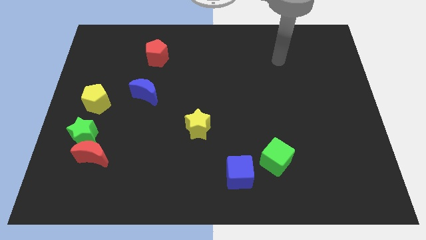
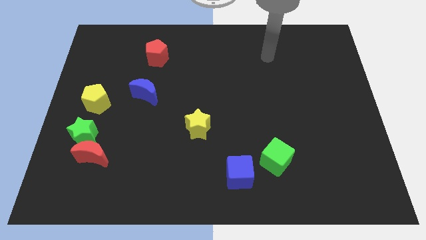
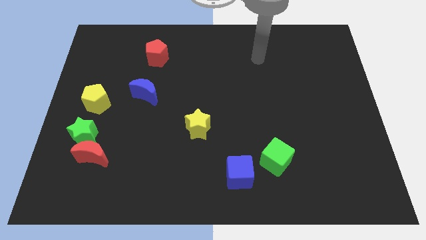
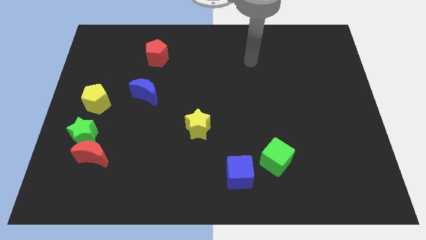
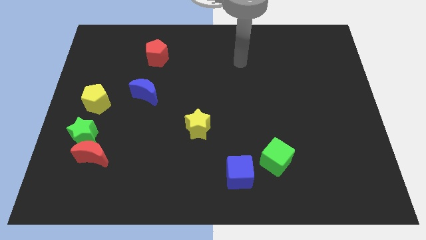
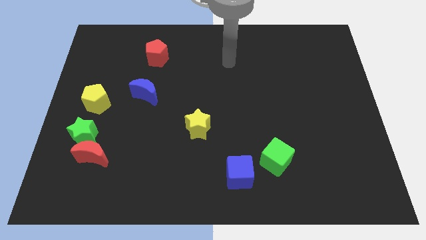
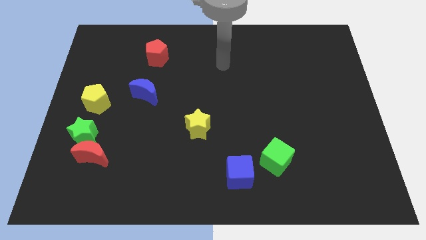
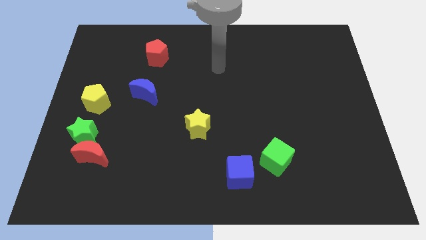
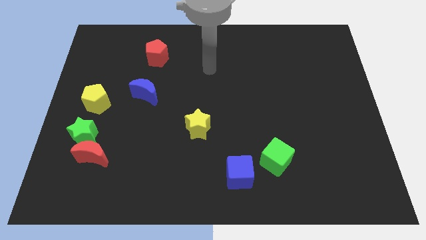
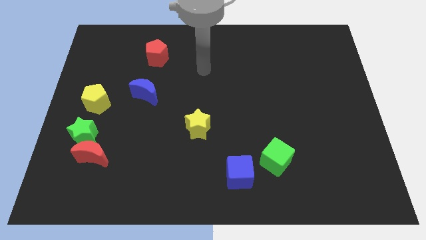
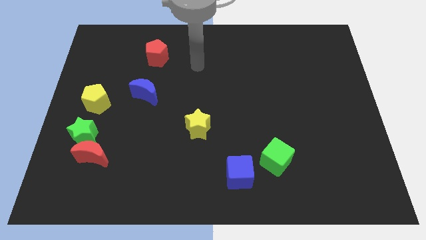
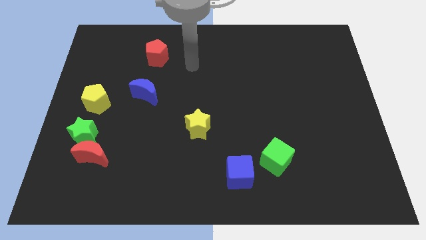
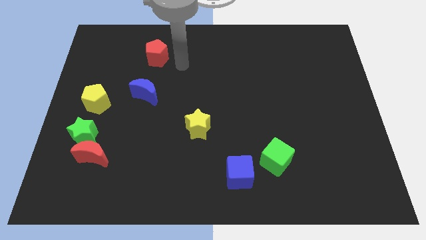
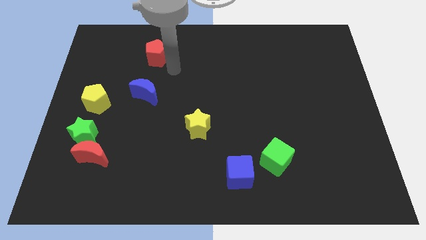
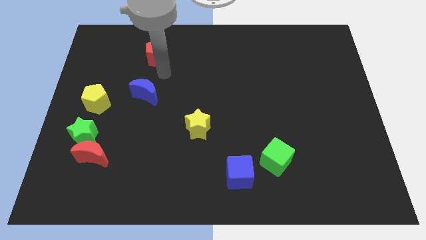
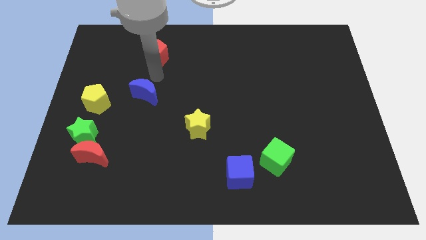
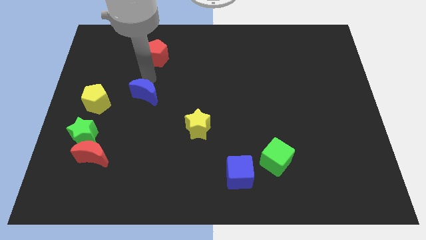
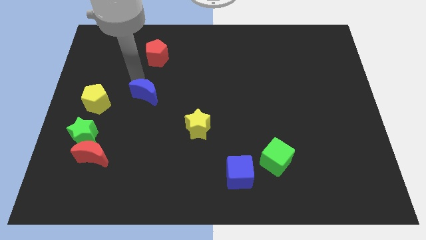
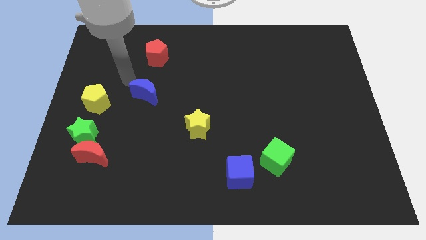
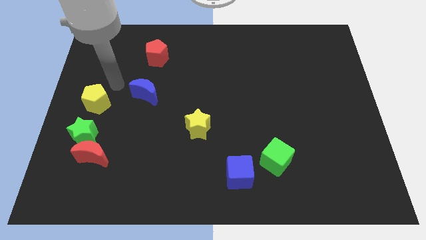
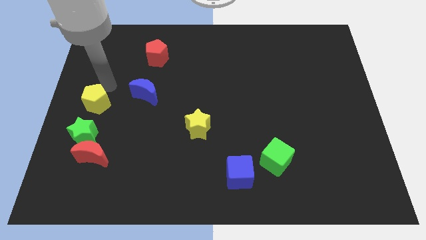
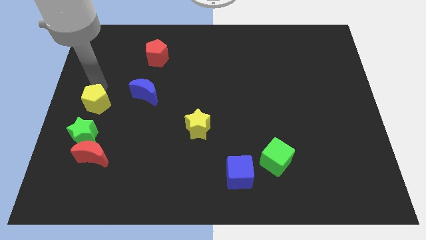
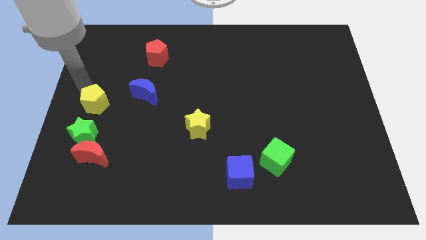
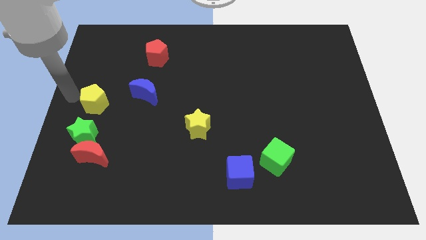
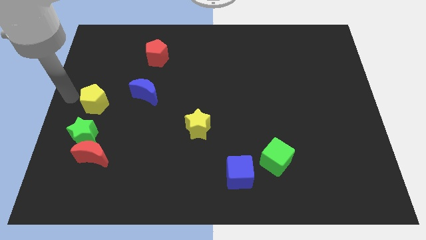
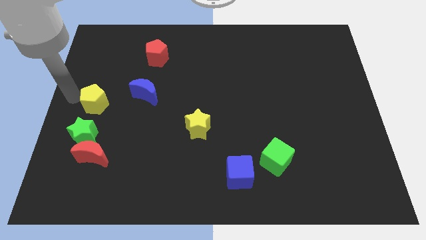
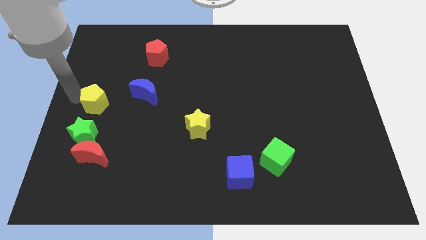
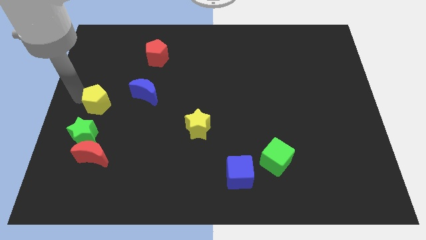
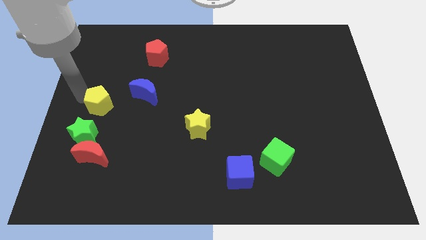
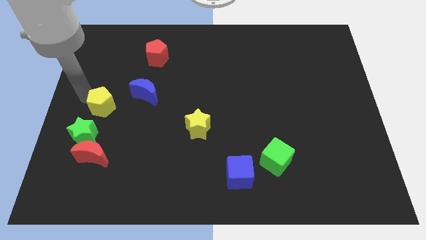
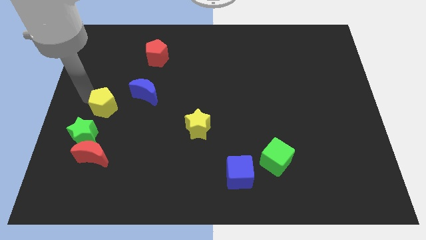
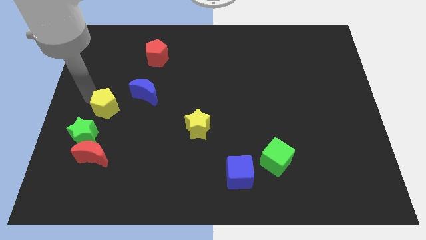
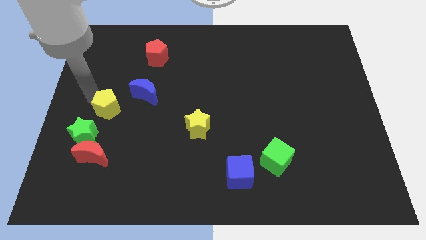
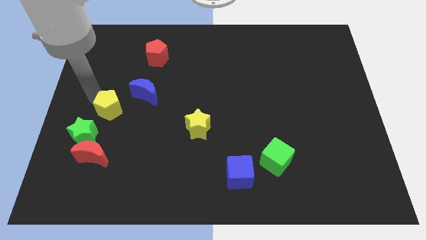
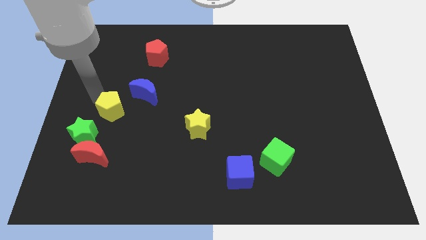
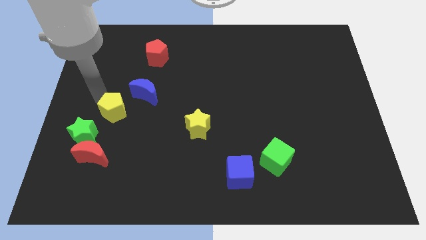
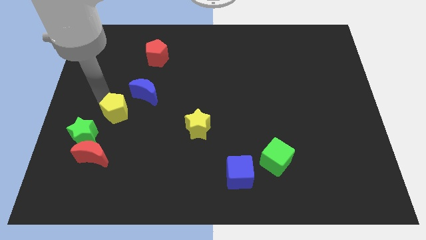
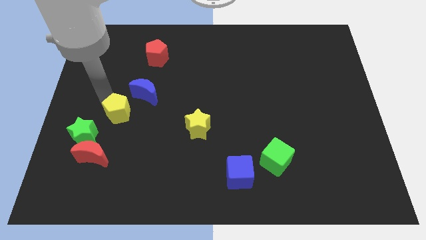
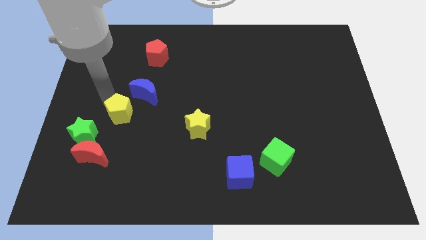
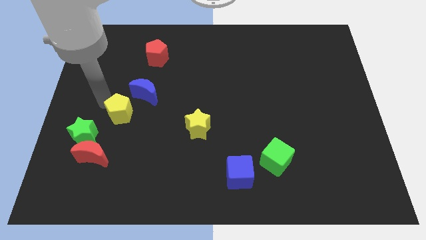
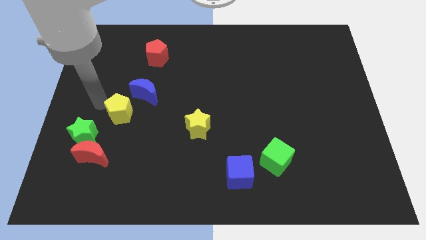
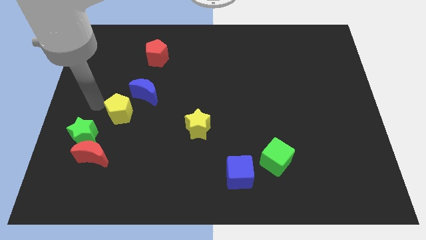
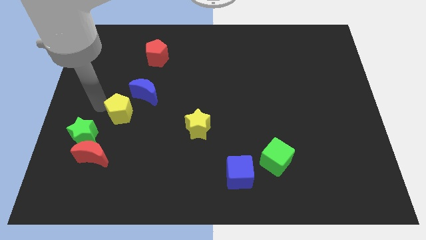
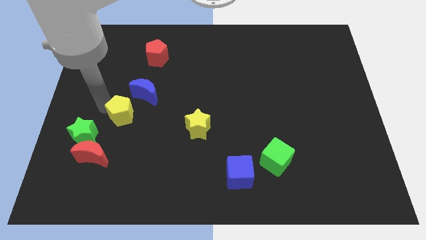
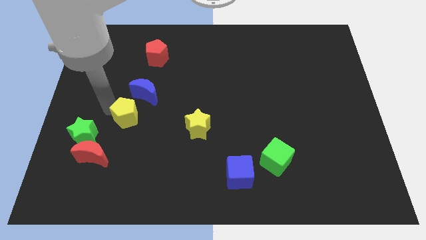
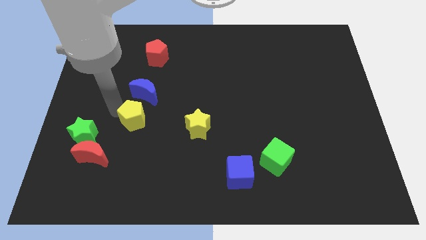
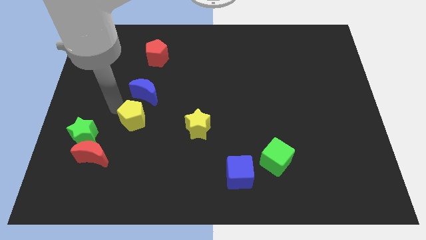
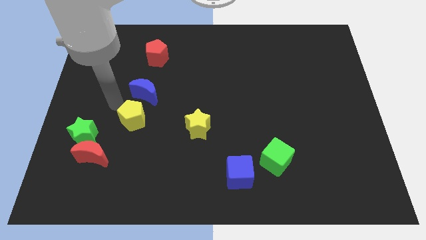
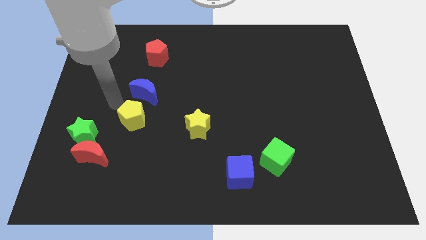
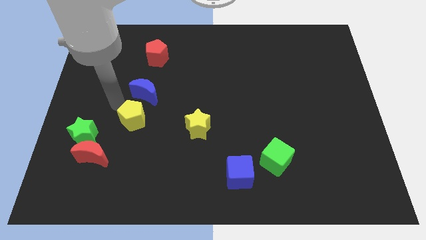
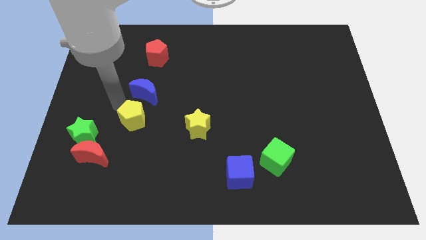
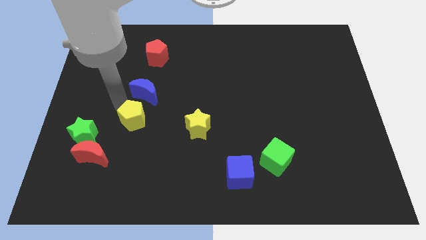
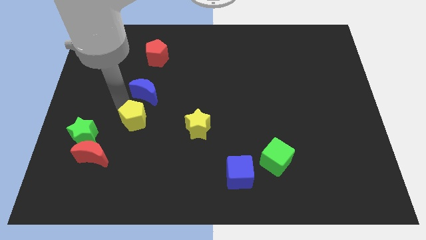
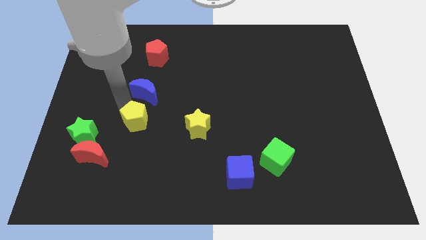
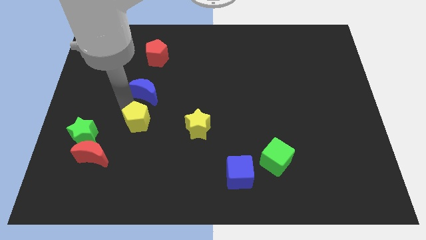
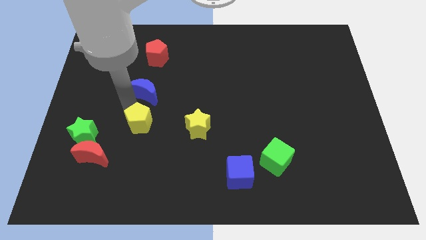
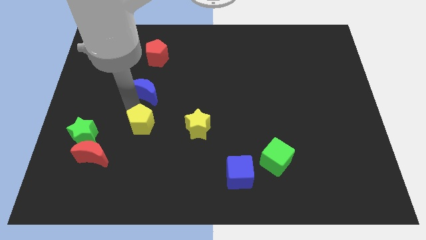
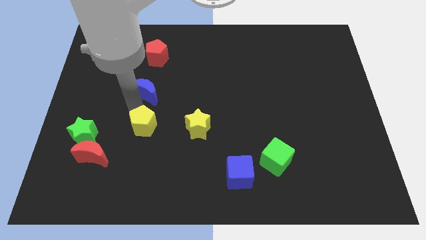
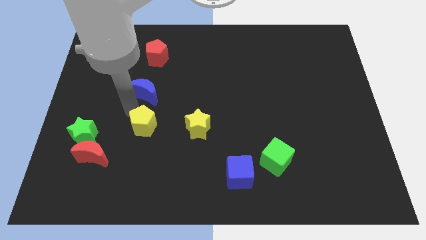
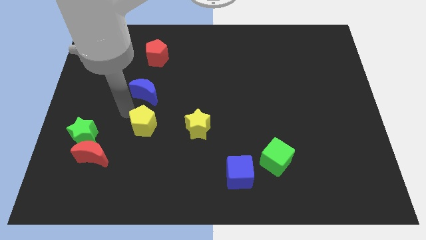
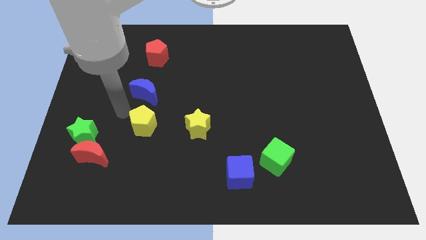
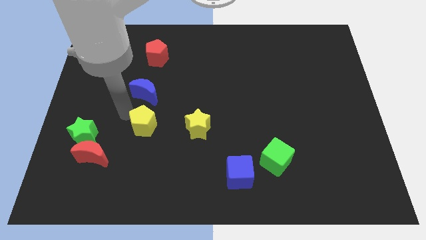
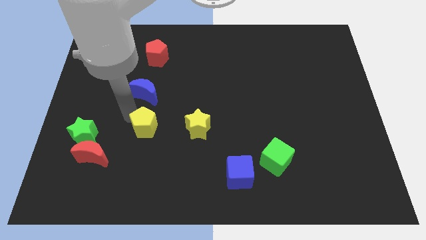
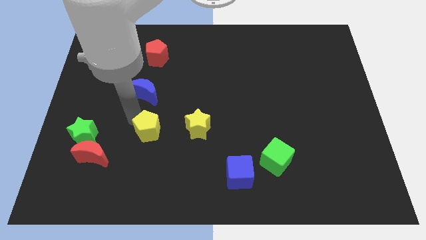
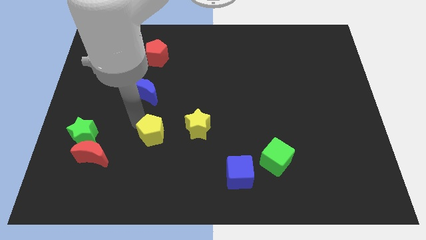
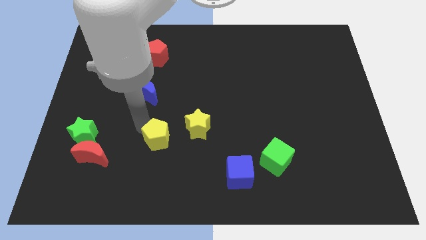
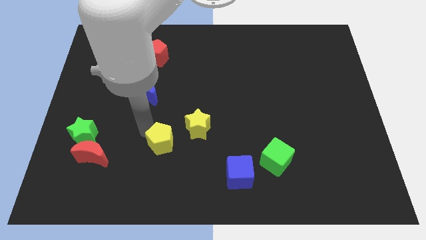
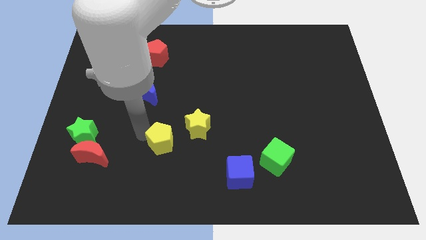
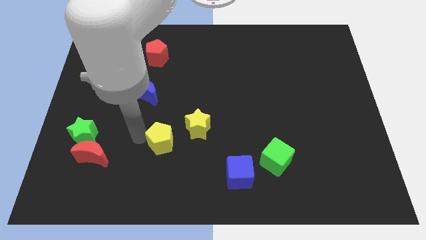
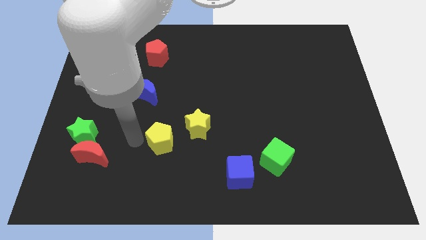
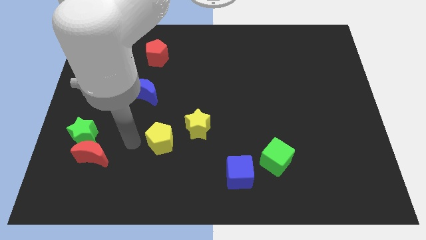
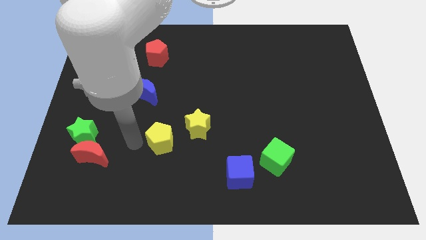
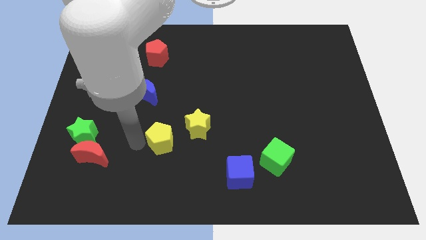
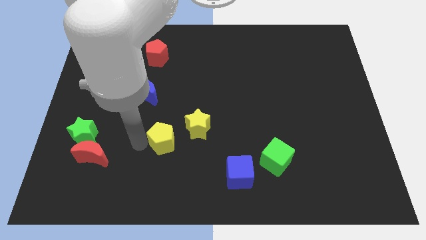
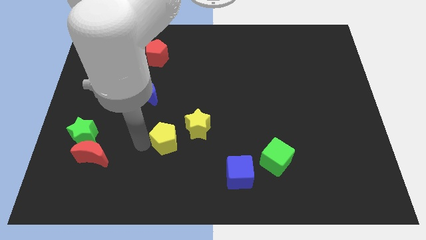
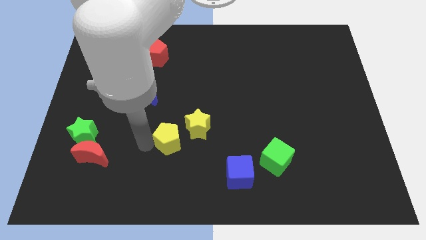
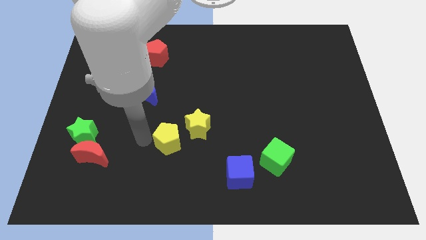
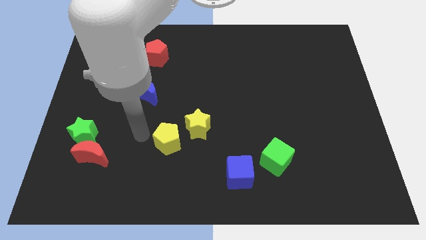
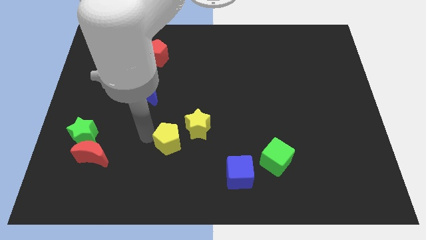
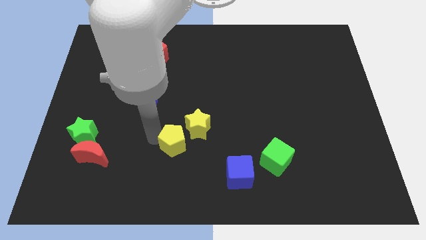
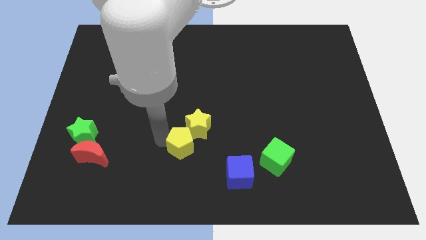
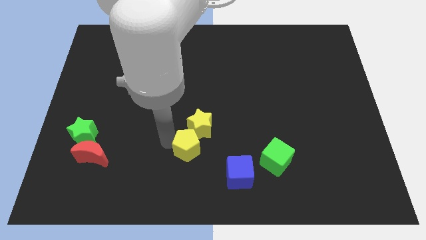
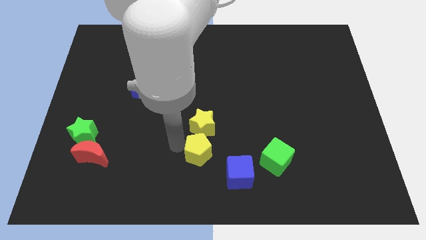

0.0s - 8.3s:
move the yellow pentagon to the bottom right of the yellow star
